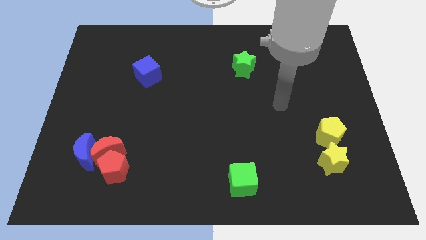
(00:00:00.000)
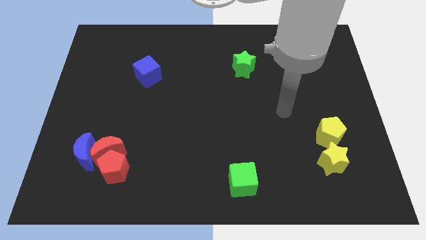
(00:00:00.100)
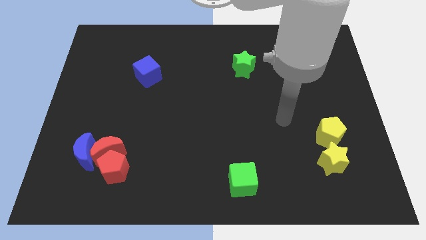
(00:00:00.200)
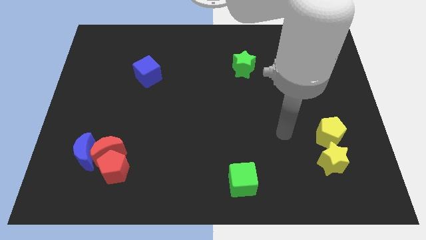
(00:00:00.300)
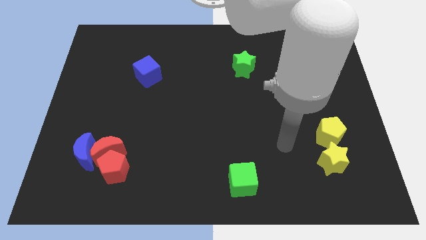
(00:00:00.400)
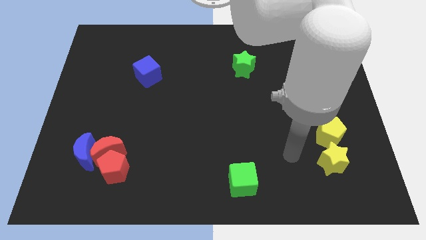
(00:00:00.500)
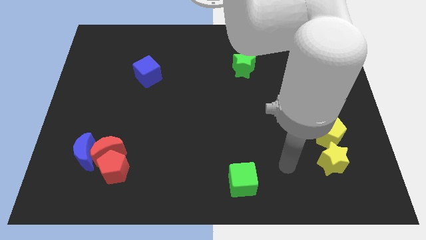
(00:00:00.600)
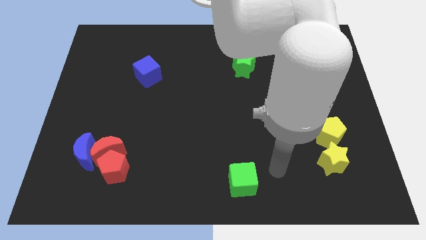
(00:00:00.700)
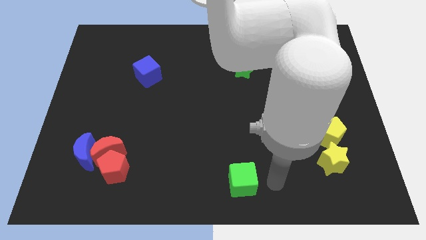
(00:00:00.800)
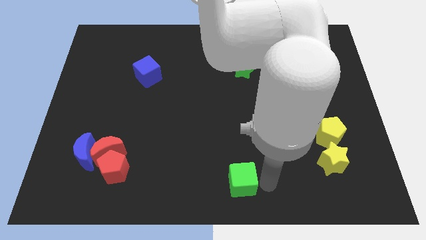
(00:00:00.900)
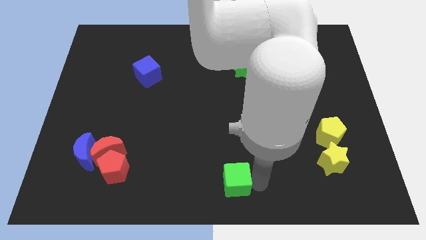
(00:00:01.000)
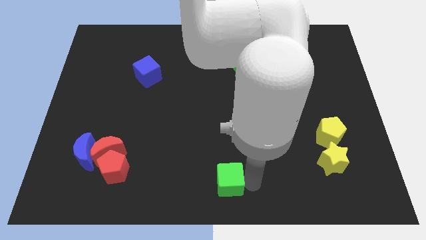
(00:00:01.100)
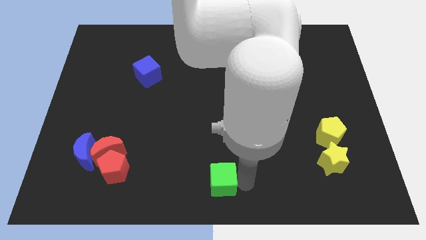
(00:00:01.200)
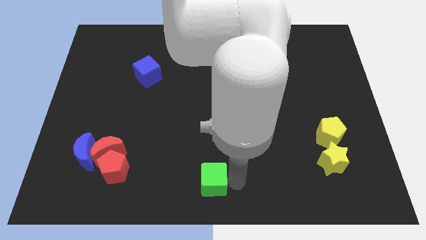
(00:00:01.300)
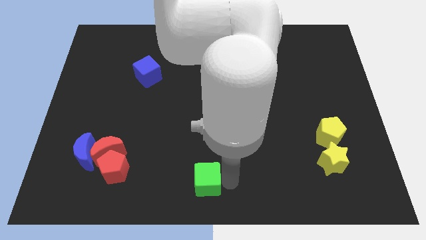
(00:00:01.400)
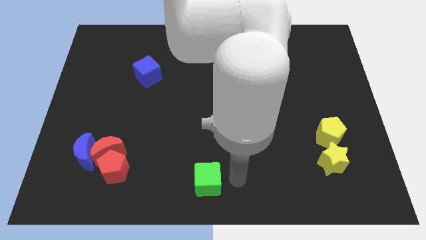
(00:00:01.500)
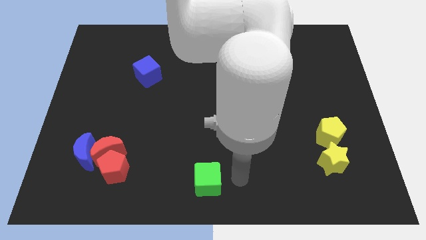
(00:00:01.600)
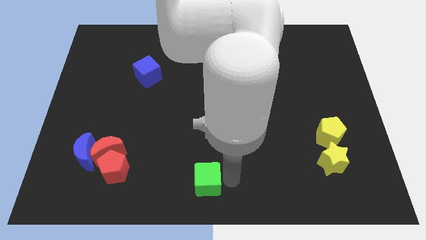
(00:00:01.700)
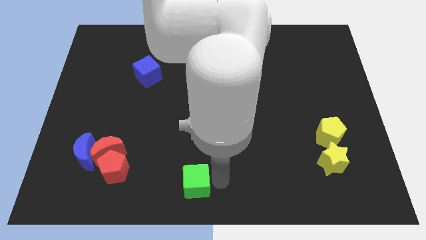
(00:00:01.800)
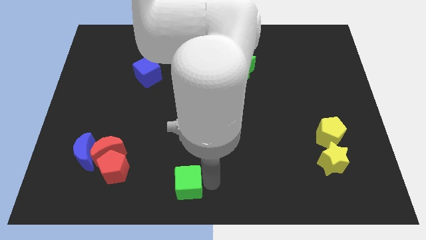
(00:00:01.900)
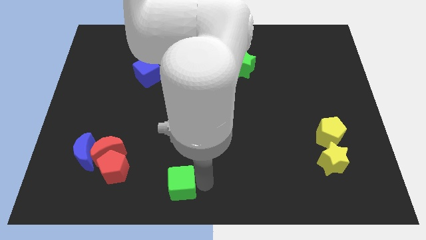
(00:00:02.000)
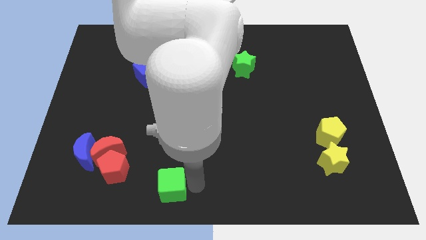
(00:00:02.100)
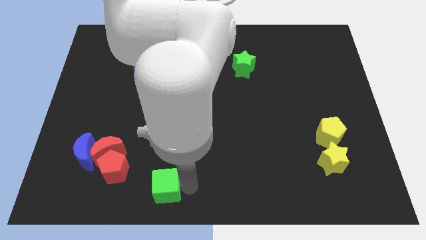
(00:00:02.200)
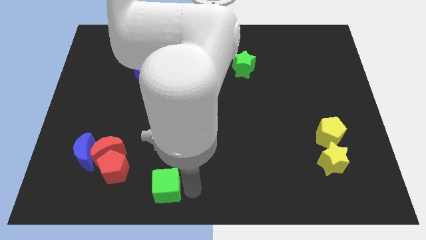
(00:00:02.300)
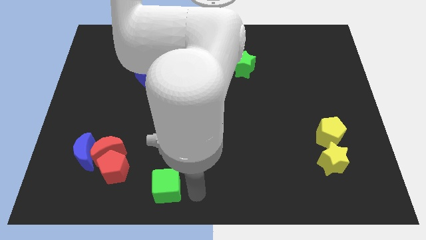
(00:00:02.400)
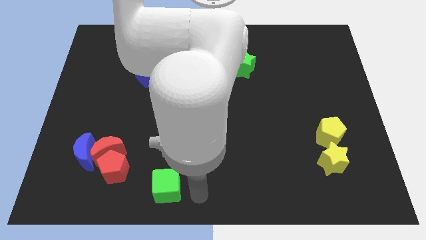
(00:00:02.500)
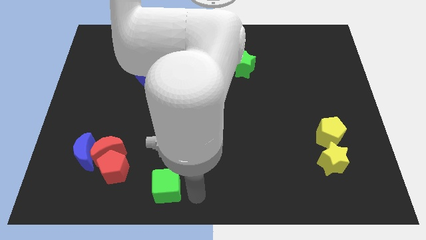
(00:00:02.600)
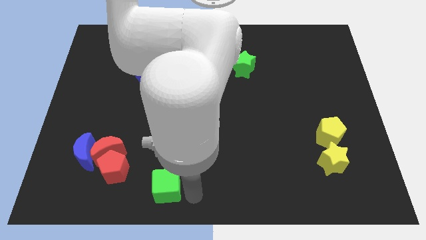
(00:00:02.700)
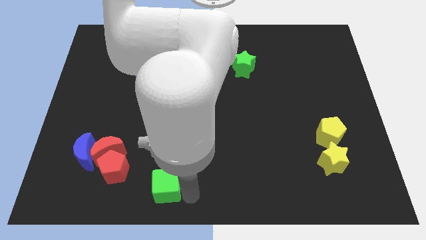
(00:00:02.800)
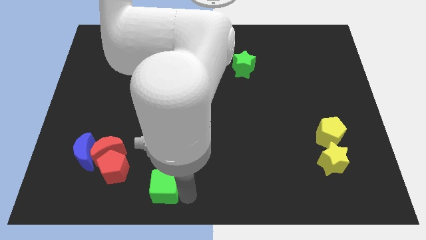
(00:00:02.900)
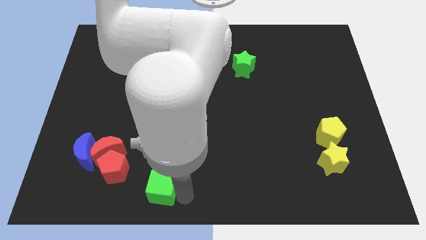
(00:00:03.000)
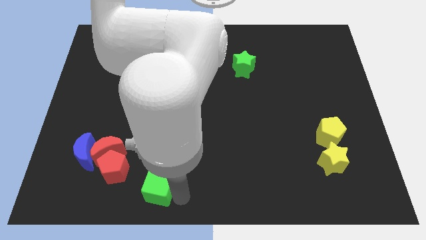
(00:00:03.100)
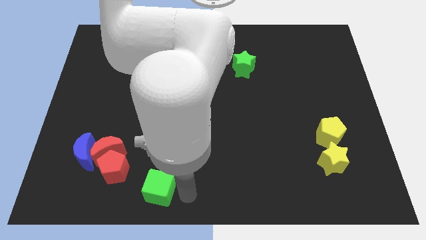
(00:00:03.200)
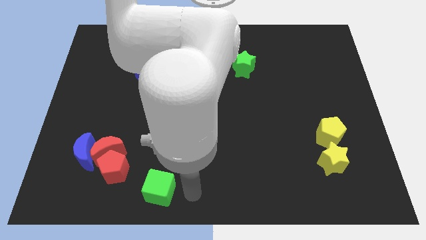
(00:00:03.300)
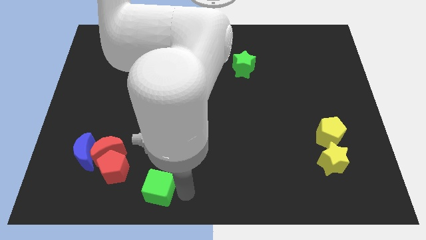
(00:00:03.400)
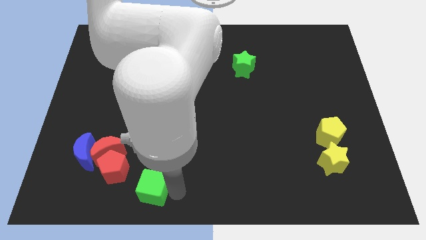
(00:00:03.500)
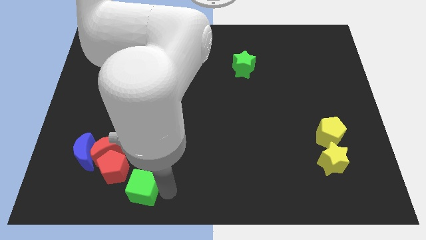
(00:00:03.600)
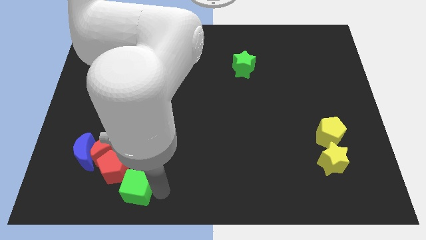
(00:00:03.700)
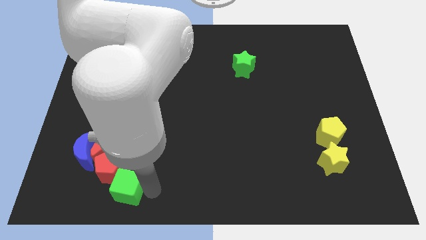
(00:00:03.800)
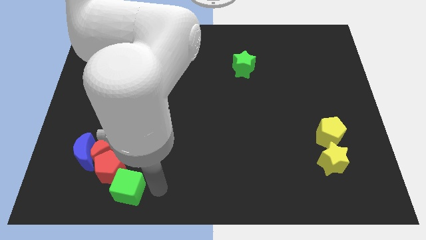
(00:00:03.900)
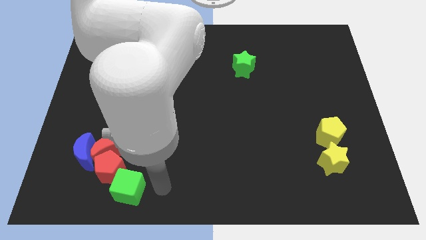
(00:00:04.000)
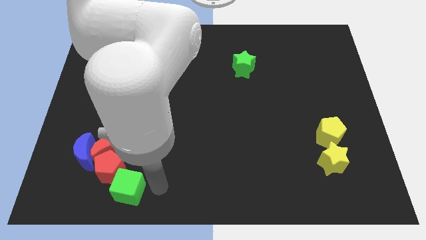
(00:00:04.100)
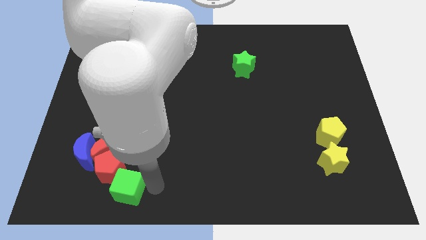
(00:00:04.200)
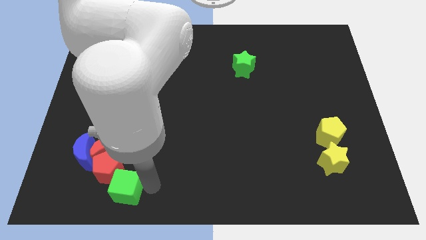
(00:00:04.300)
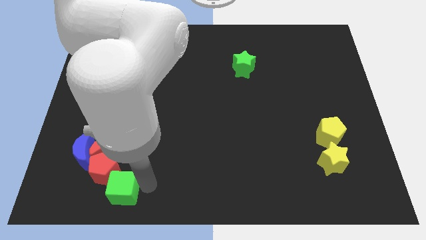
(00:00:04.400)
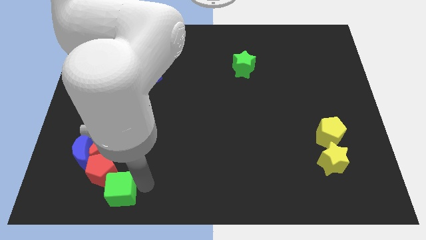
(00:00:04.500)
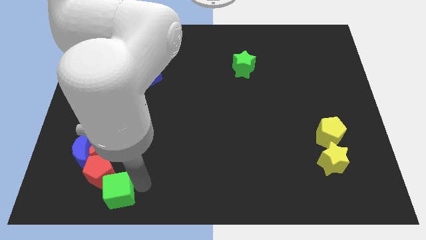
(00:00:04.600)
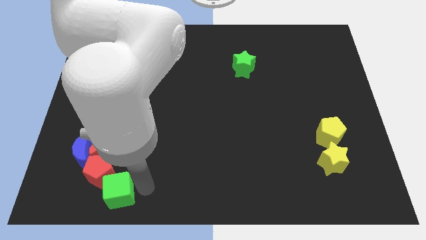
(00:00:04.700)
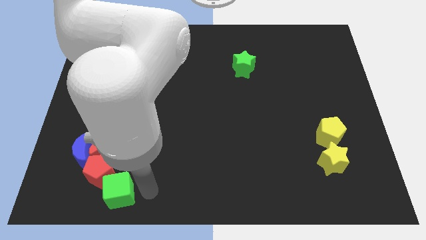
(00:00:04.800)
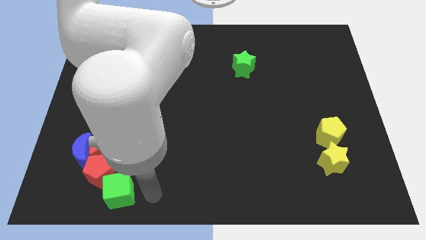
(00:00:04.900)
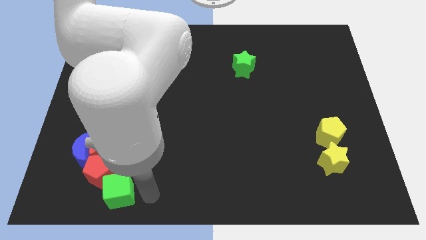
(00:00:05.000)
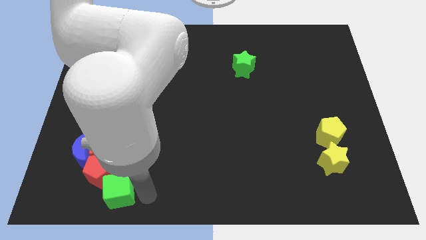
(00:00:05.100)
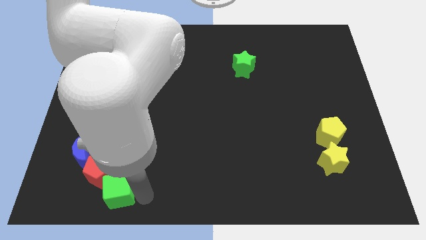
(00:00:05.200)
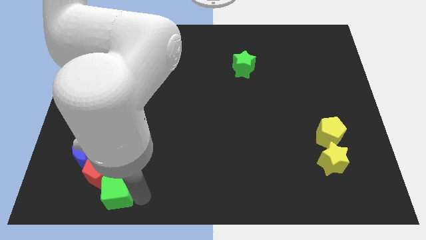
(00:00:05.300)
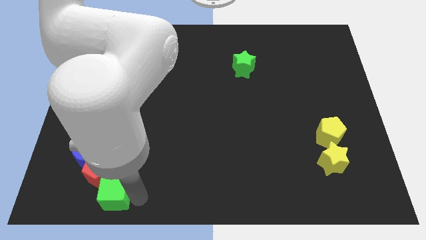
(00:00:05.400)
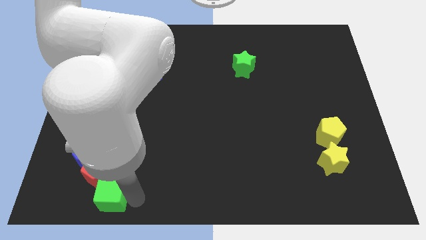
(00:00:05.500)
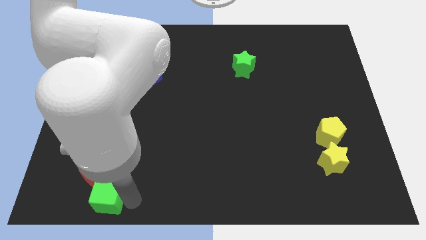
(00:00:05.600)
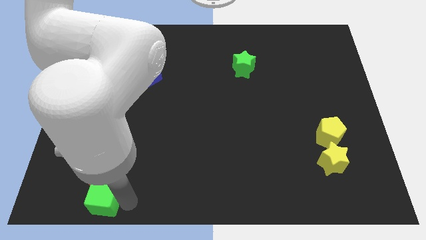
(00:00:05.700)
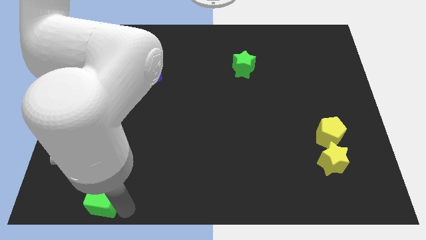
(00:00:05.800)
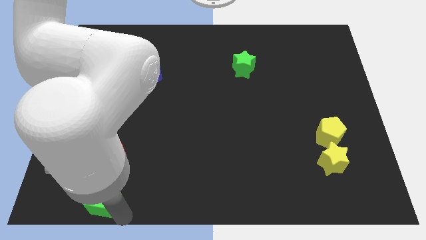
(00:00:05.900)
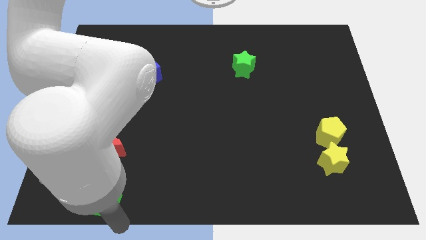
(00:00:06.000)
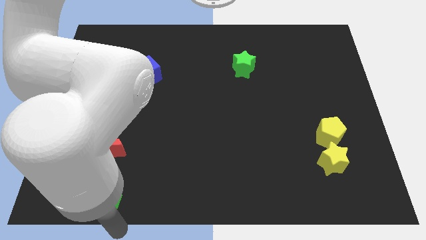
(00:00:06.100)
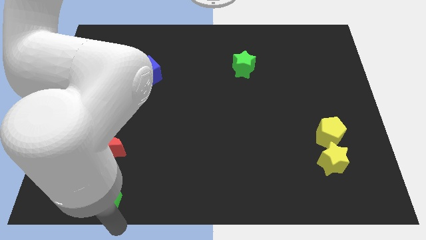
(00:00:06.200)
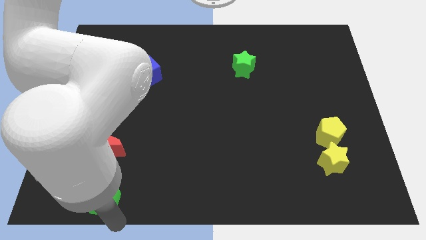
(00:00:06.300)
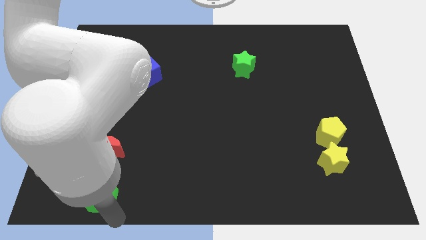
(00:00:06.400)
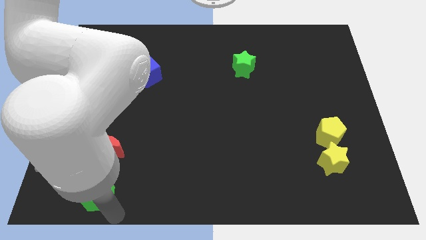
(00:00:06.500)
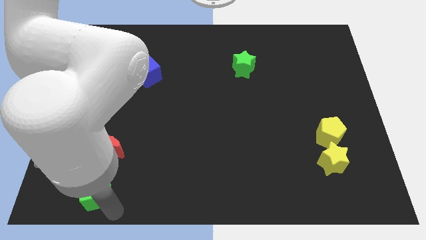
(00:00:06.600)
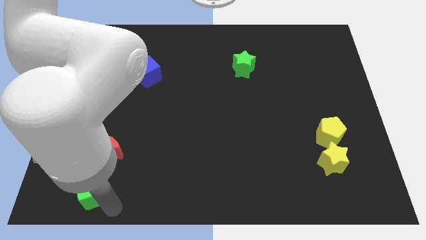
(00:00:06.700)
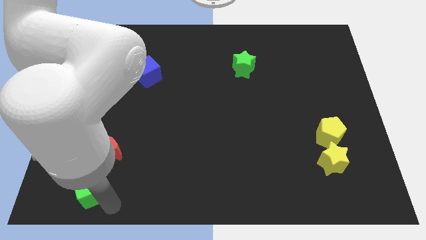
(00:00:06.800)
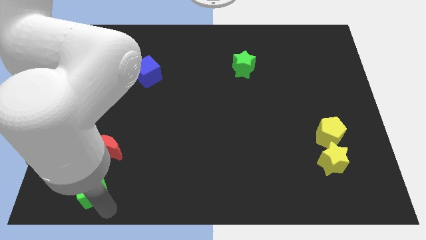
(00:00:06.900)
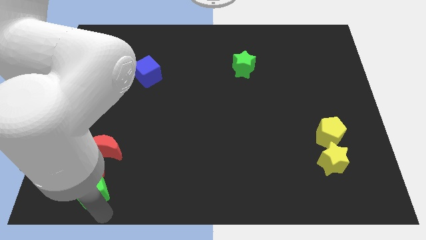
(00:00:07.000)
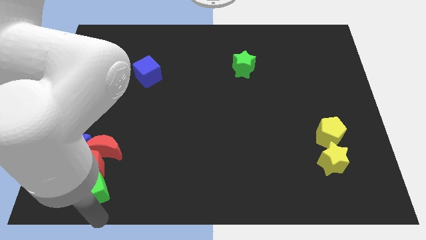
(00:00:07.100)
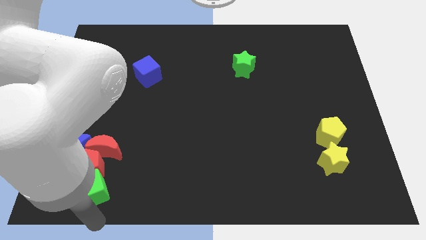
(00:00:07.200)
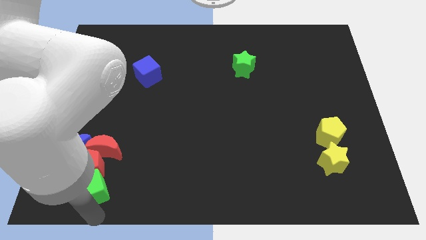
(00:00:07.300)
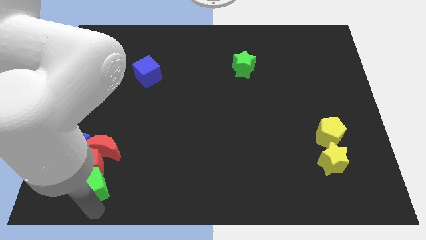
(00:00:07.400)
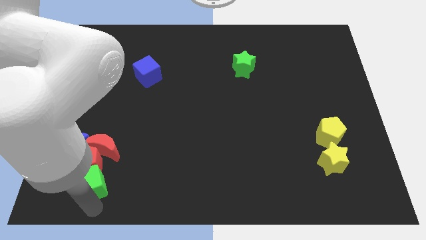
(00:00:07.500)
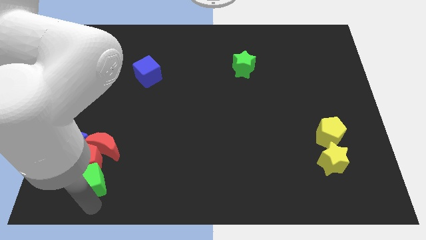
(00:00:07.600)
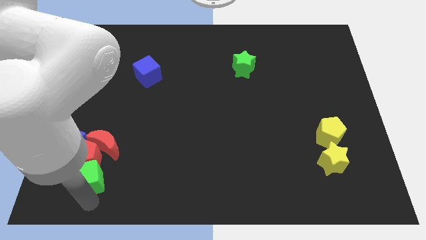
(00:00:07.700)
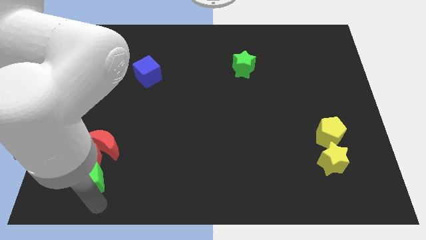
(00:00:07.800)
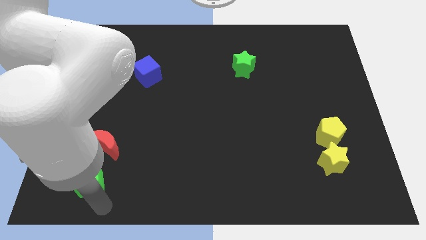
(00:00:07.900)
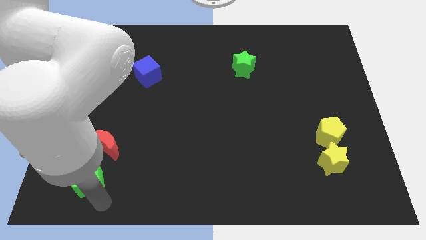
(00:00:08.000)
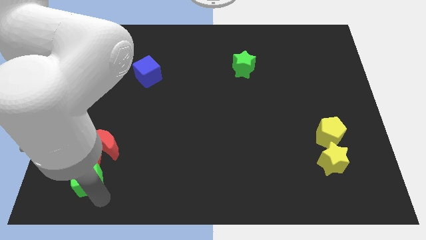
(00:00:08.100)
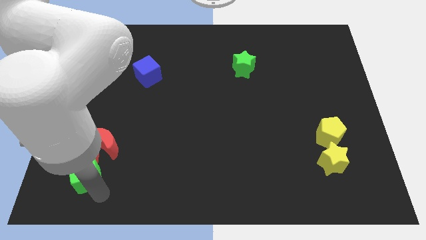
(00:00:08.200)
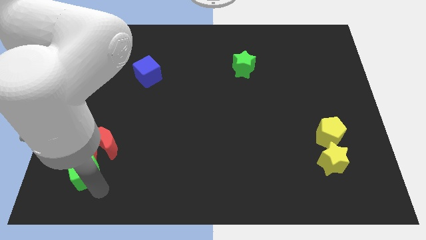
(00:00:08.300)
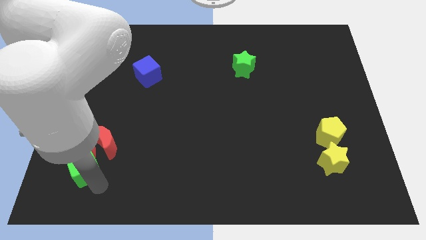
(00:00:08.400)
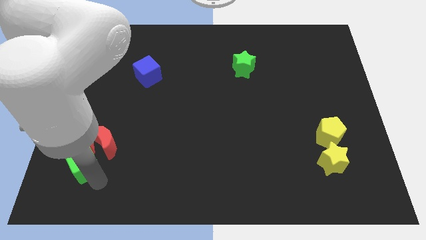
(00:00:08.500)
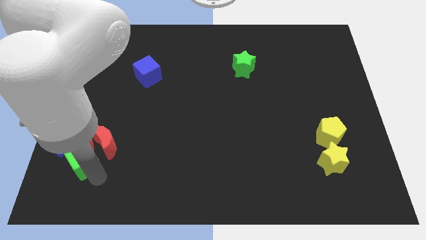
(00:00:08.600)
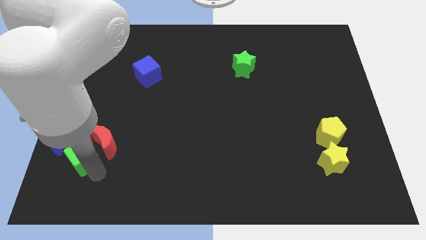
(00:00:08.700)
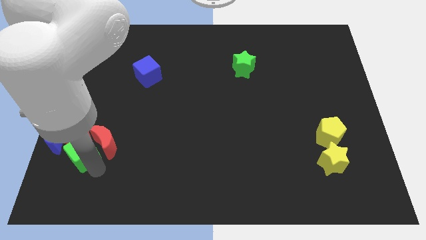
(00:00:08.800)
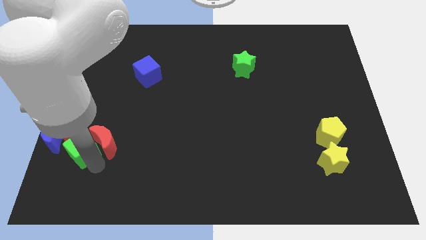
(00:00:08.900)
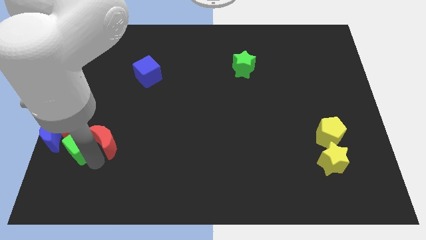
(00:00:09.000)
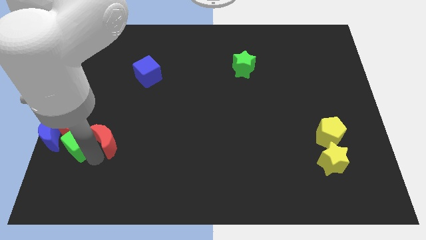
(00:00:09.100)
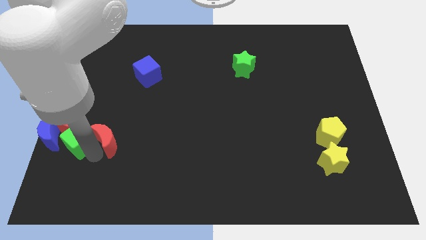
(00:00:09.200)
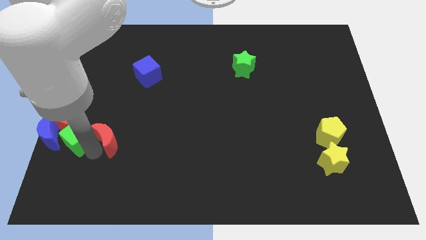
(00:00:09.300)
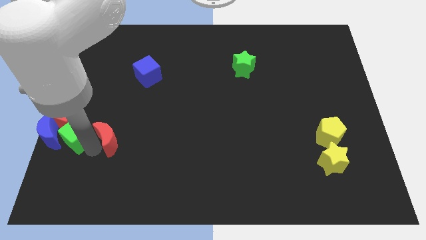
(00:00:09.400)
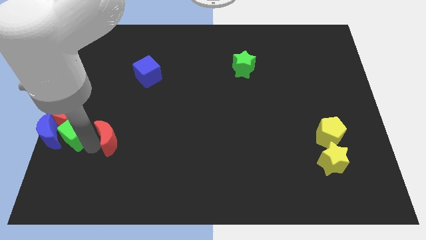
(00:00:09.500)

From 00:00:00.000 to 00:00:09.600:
push the green cube next to the blue moon
